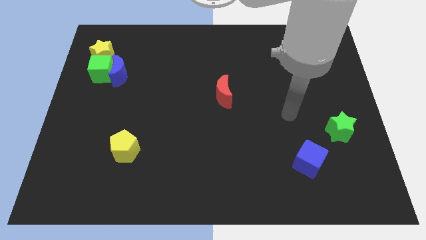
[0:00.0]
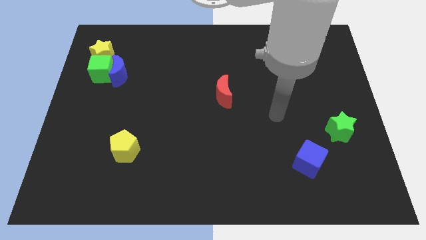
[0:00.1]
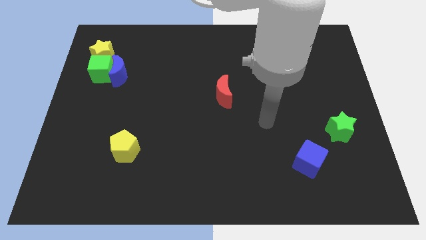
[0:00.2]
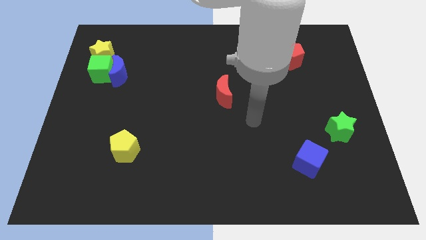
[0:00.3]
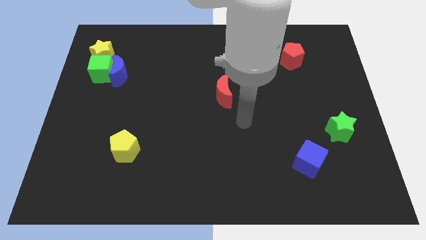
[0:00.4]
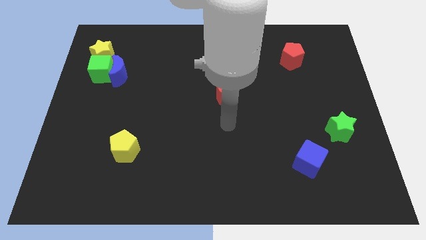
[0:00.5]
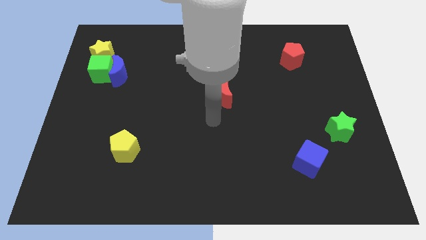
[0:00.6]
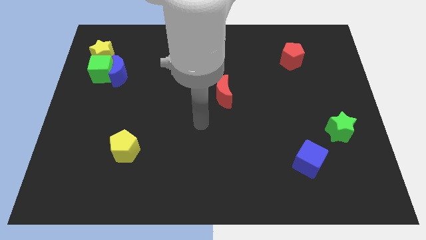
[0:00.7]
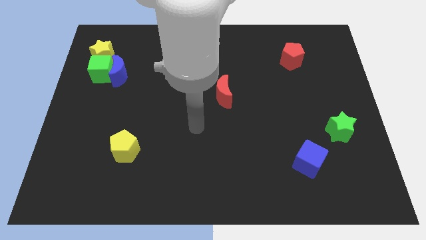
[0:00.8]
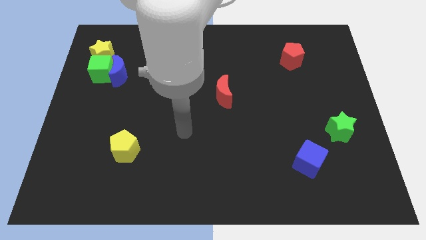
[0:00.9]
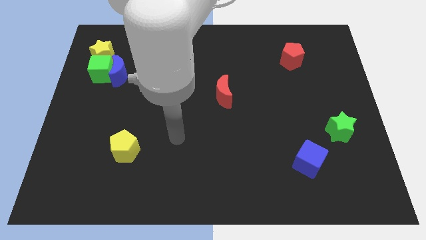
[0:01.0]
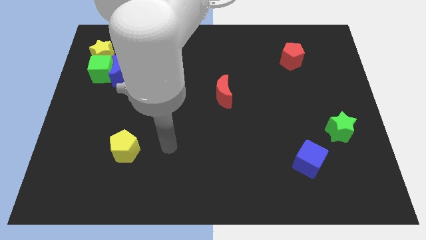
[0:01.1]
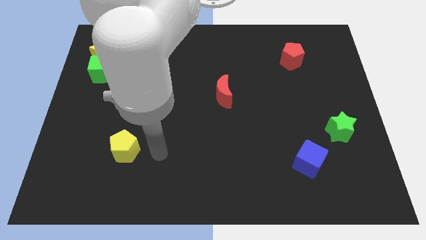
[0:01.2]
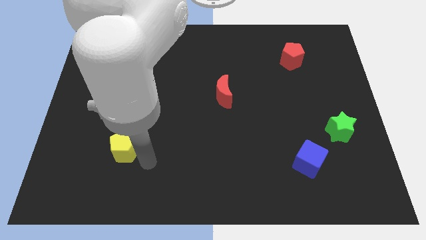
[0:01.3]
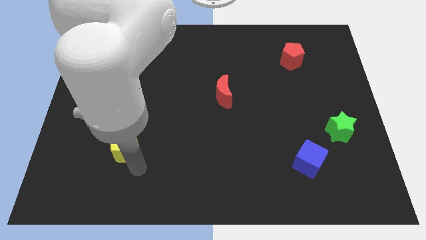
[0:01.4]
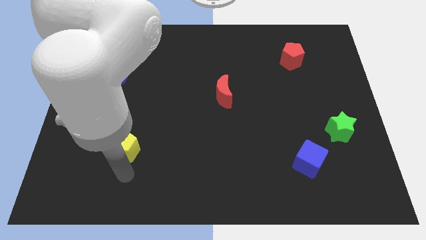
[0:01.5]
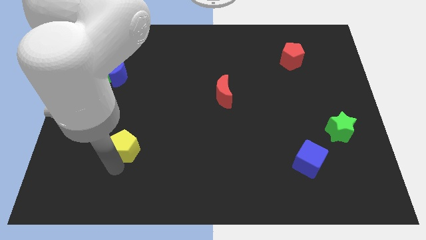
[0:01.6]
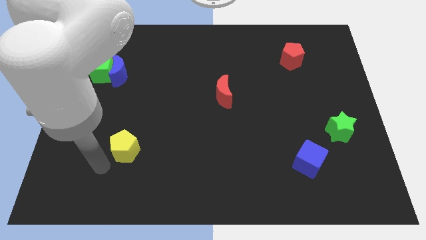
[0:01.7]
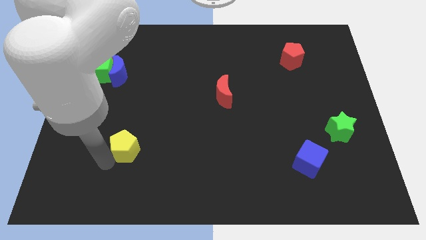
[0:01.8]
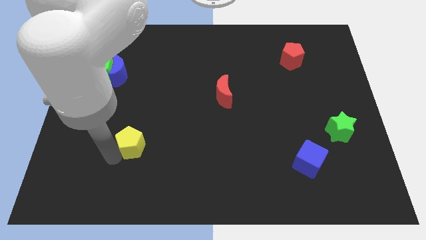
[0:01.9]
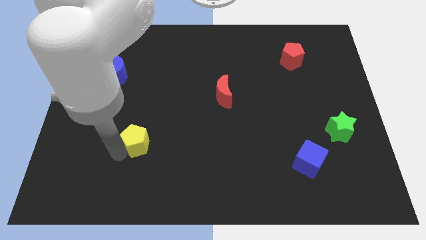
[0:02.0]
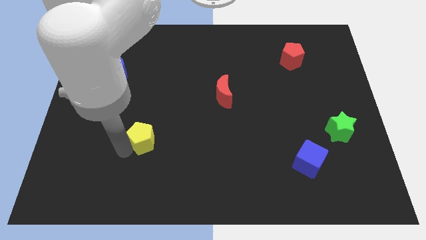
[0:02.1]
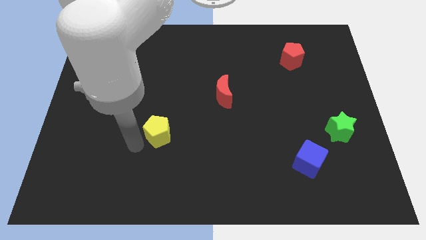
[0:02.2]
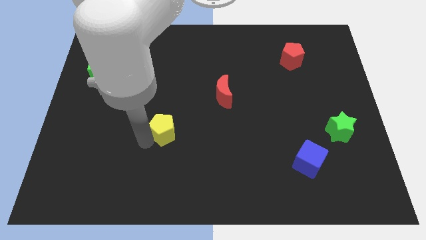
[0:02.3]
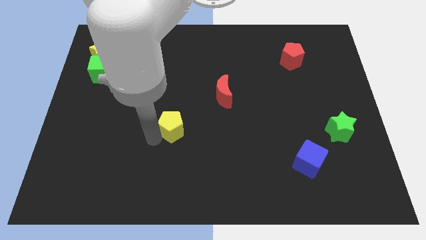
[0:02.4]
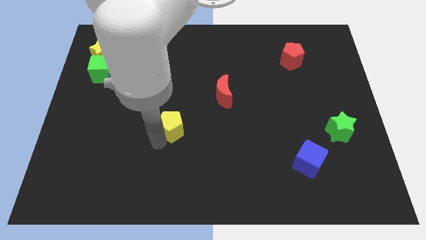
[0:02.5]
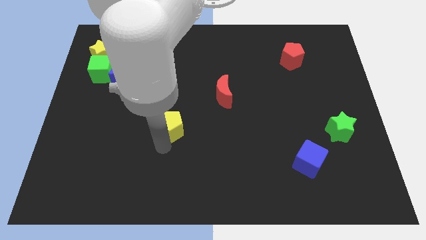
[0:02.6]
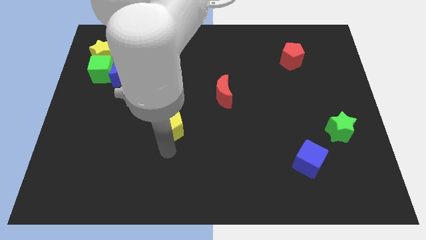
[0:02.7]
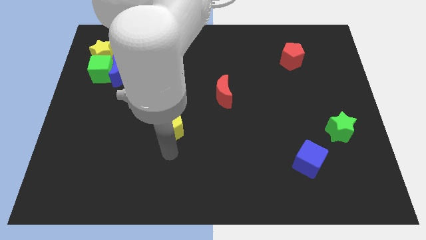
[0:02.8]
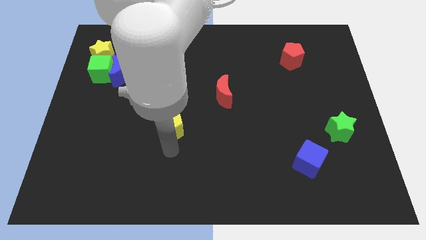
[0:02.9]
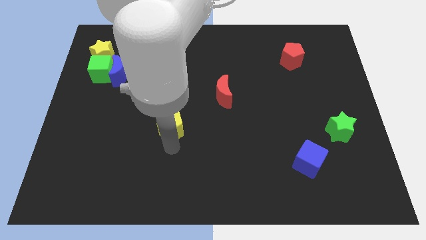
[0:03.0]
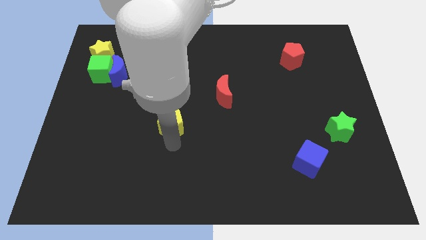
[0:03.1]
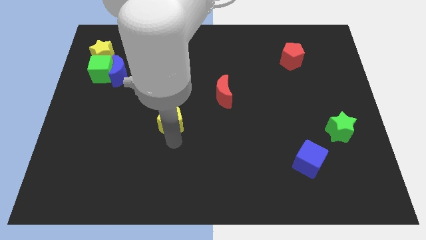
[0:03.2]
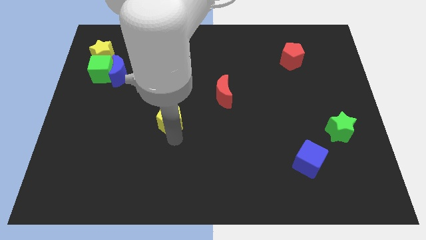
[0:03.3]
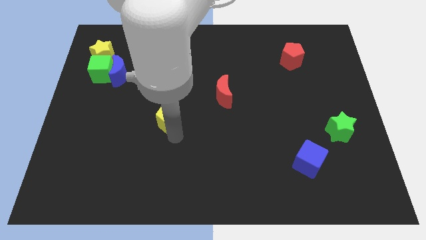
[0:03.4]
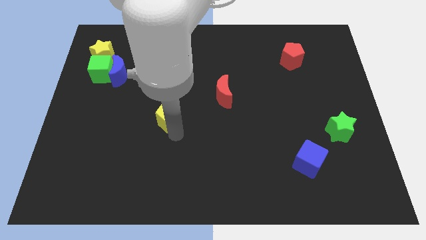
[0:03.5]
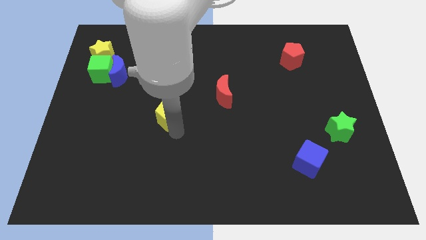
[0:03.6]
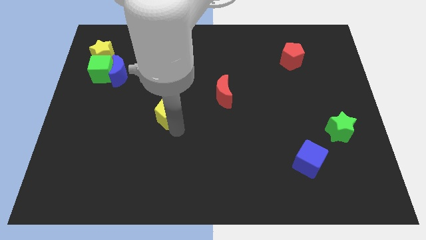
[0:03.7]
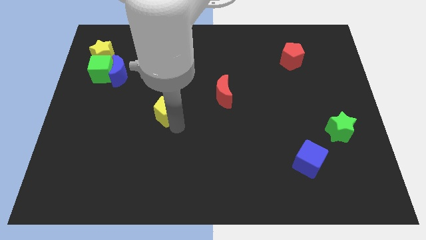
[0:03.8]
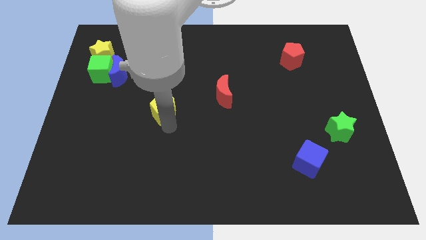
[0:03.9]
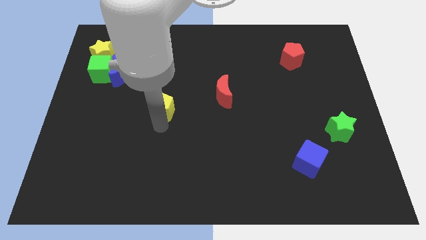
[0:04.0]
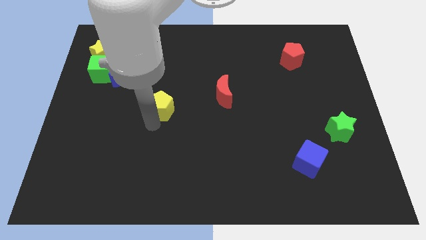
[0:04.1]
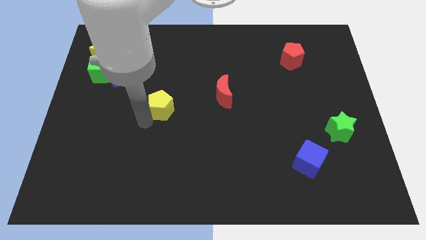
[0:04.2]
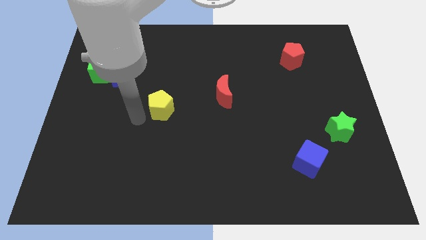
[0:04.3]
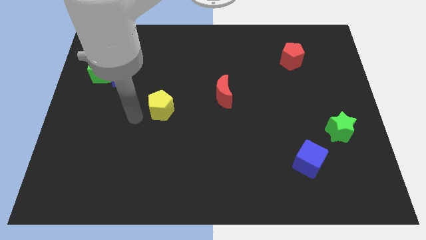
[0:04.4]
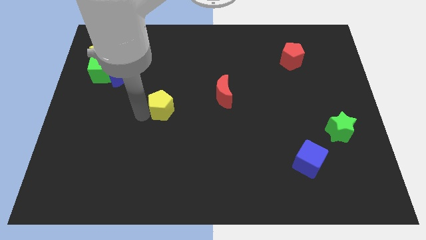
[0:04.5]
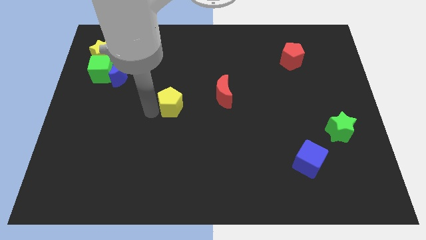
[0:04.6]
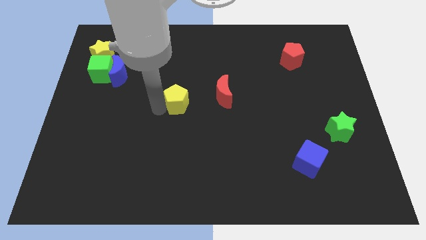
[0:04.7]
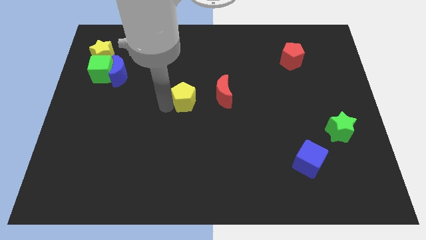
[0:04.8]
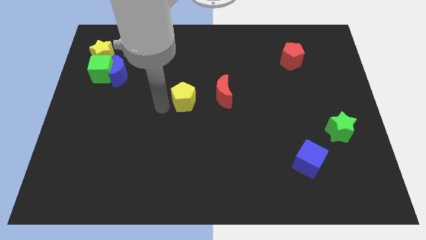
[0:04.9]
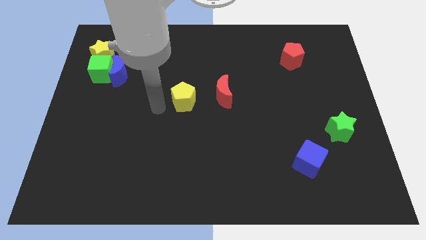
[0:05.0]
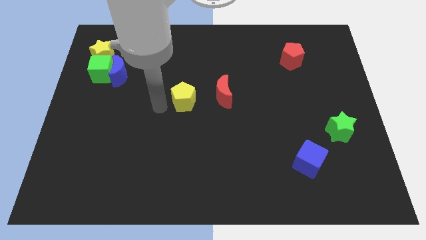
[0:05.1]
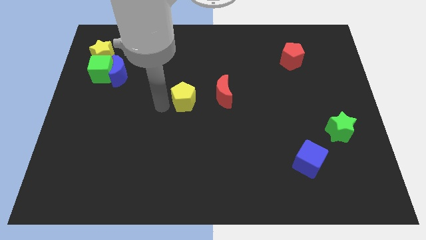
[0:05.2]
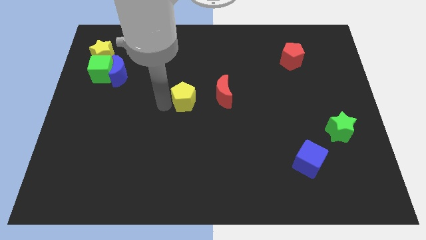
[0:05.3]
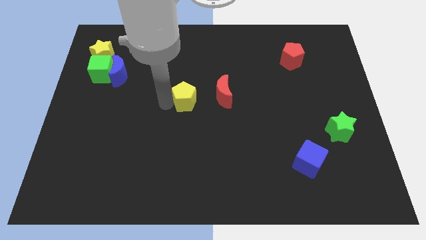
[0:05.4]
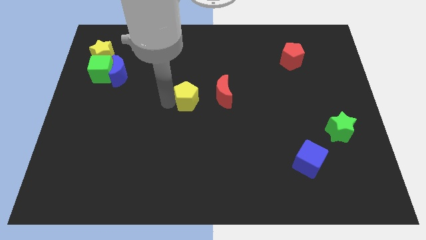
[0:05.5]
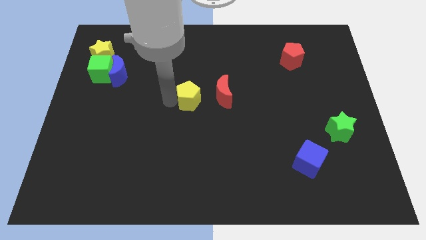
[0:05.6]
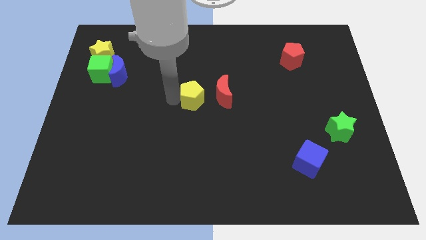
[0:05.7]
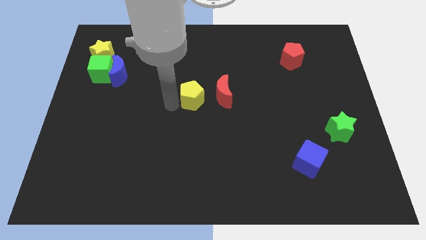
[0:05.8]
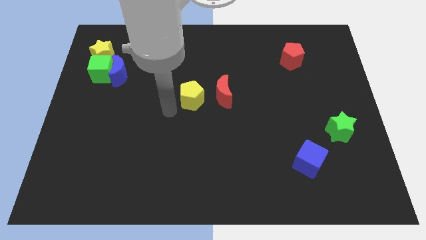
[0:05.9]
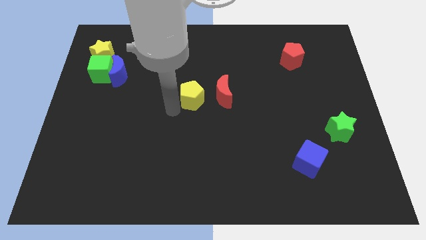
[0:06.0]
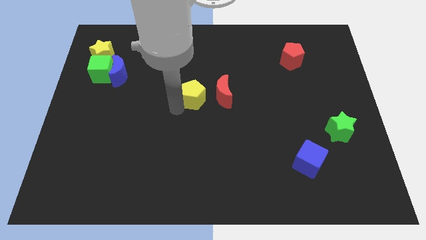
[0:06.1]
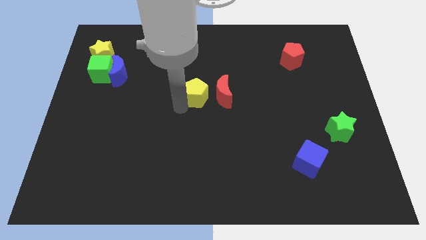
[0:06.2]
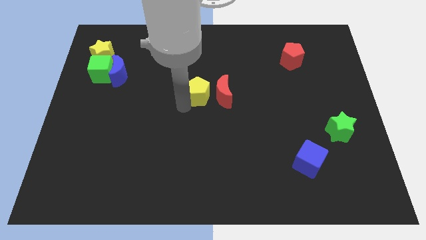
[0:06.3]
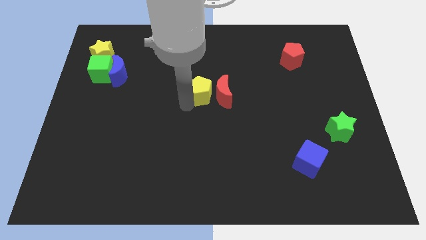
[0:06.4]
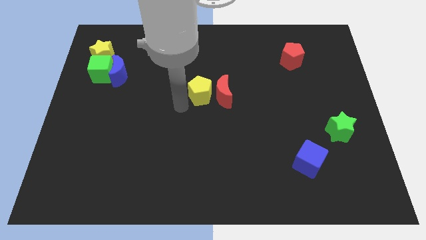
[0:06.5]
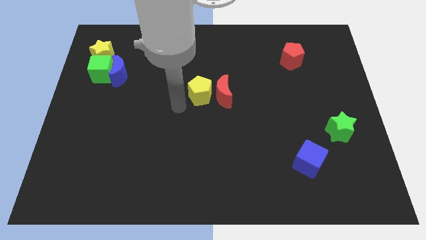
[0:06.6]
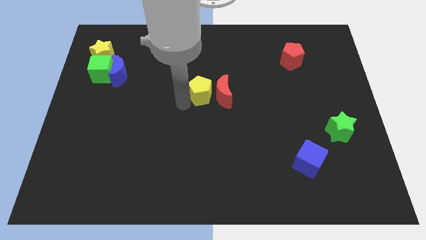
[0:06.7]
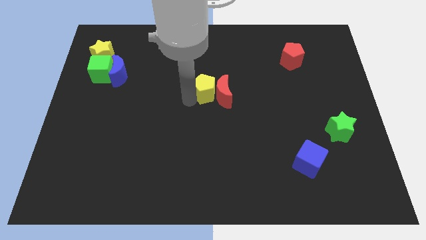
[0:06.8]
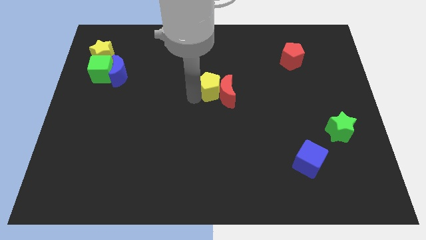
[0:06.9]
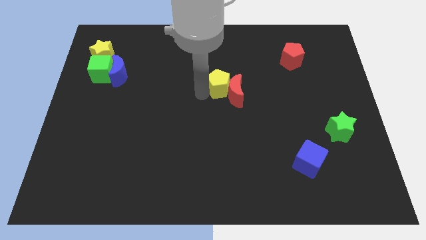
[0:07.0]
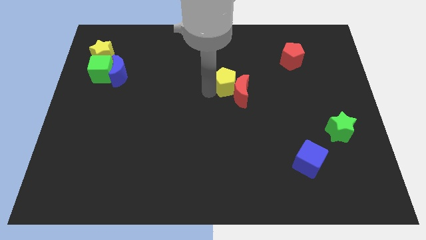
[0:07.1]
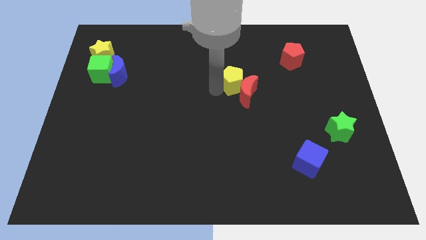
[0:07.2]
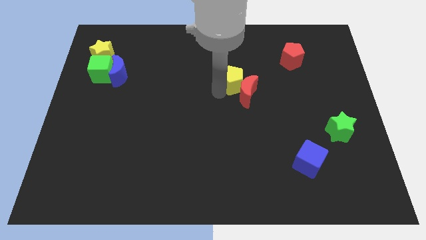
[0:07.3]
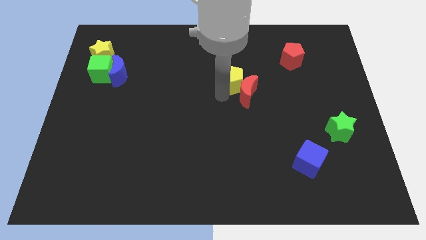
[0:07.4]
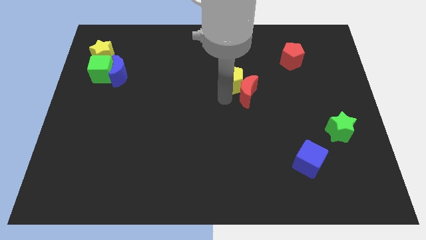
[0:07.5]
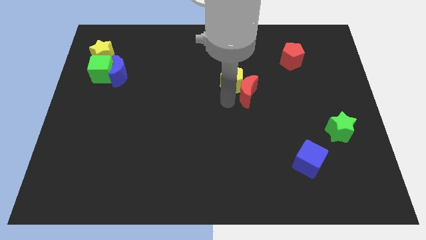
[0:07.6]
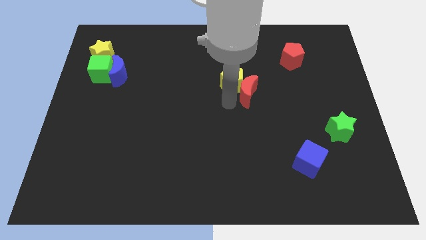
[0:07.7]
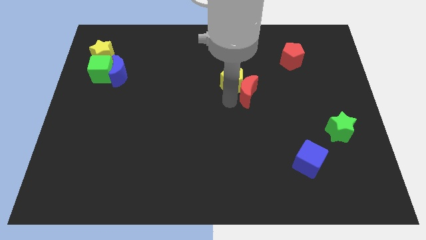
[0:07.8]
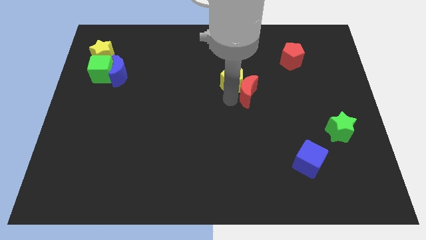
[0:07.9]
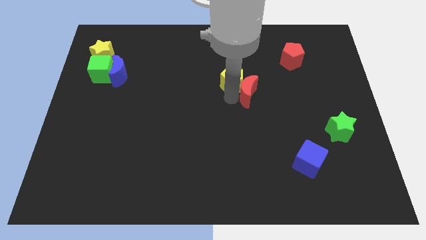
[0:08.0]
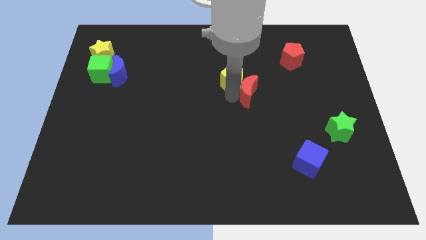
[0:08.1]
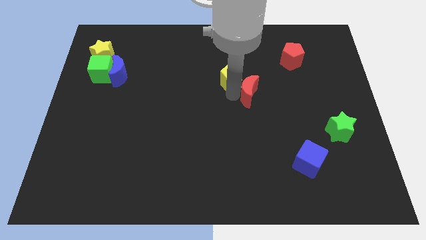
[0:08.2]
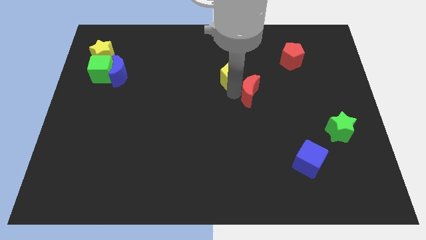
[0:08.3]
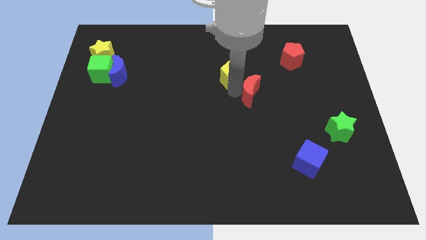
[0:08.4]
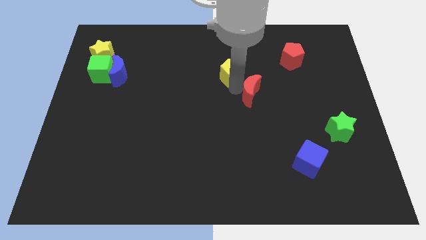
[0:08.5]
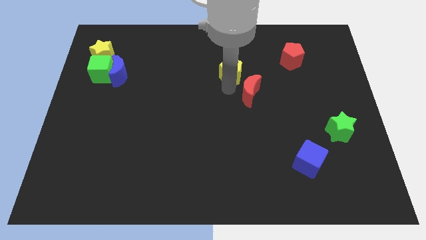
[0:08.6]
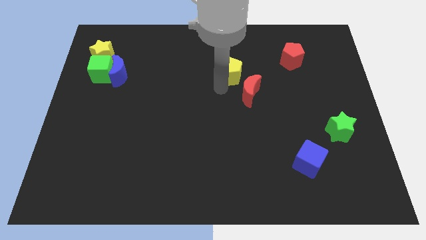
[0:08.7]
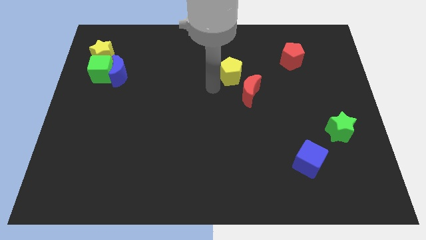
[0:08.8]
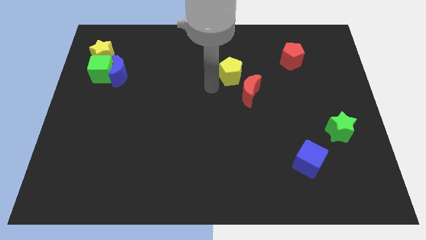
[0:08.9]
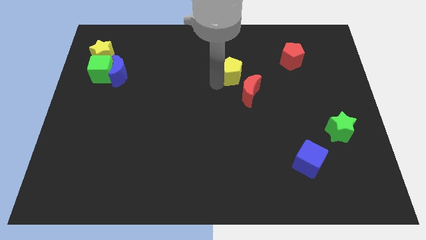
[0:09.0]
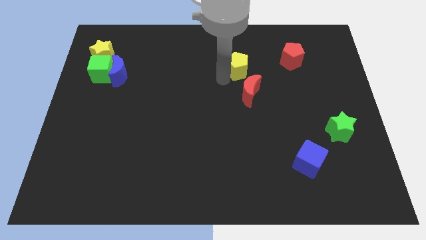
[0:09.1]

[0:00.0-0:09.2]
push the yellow pentagon to the left side of the red pentagon
